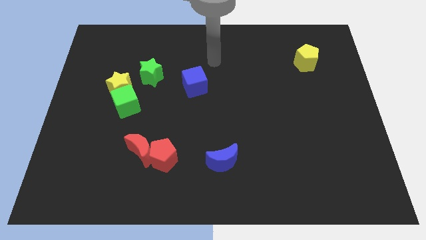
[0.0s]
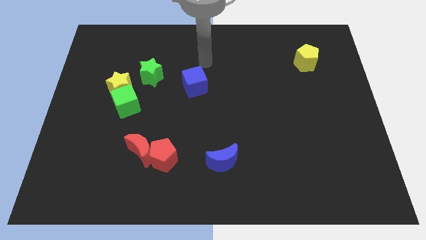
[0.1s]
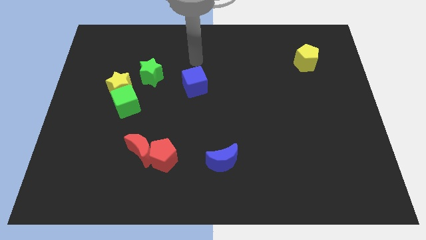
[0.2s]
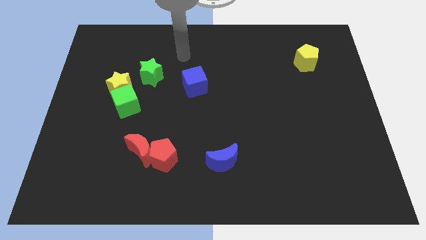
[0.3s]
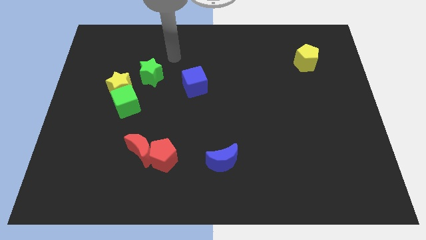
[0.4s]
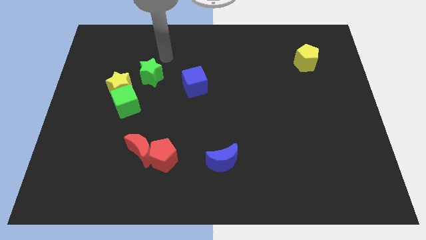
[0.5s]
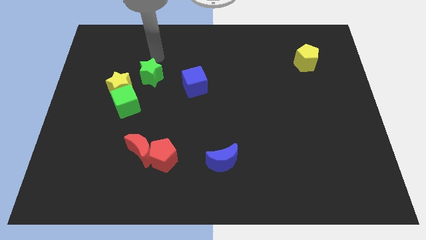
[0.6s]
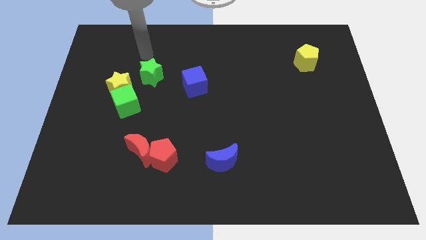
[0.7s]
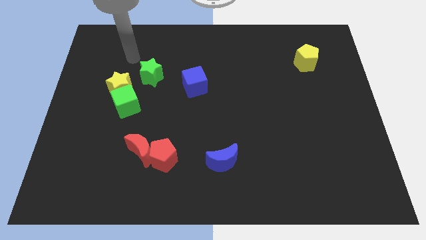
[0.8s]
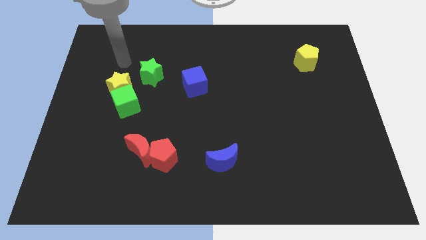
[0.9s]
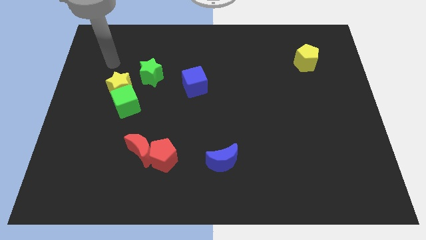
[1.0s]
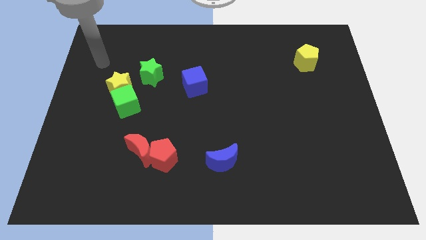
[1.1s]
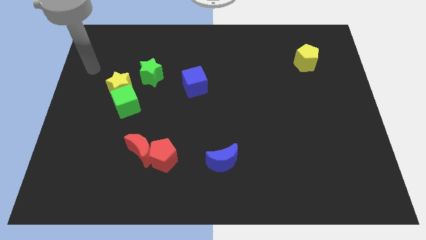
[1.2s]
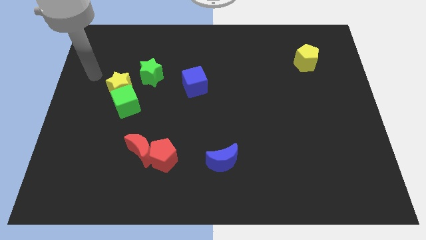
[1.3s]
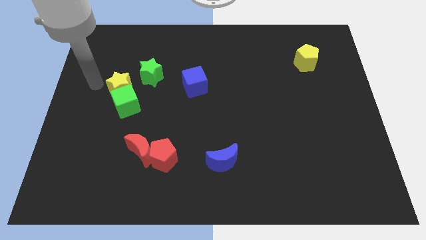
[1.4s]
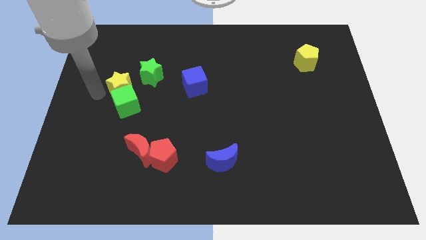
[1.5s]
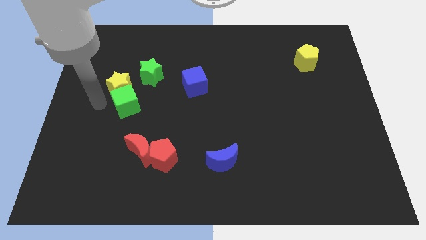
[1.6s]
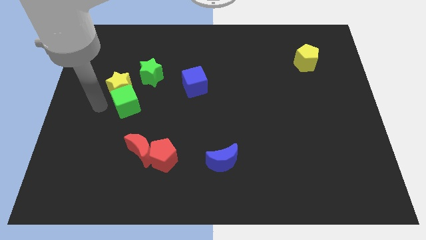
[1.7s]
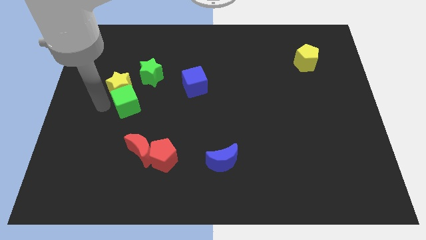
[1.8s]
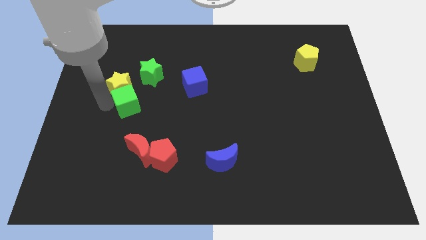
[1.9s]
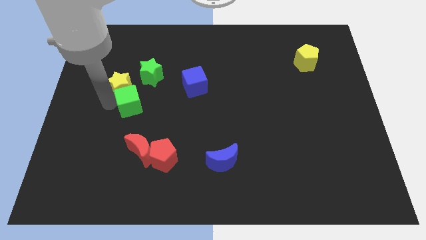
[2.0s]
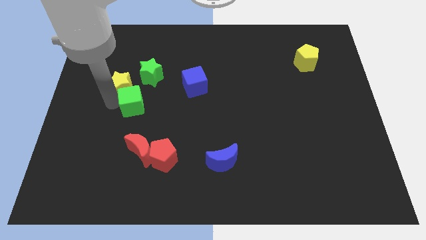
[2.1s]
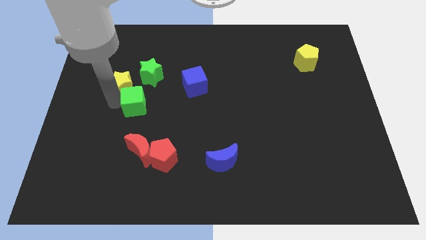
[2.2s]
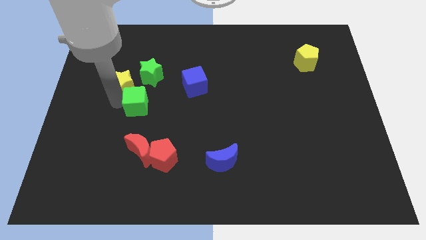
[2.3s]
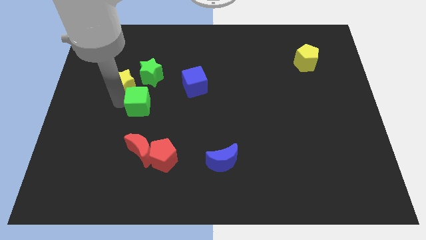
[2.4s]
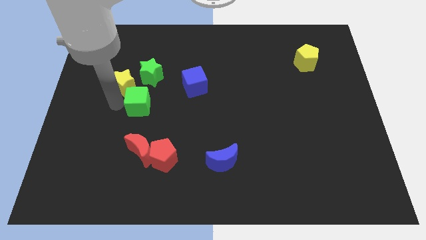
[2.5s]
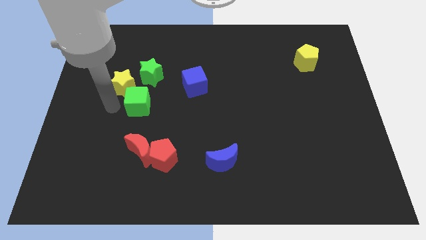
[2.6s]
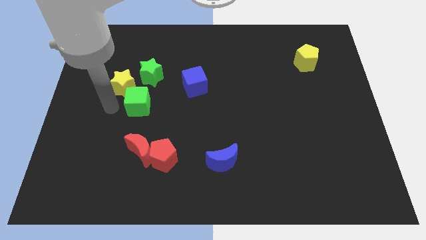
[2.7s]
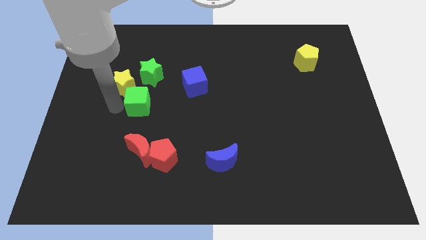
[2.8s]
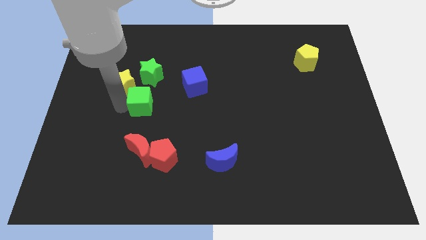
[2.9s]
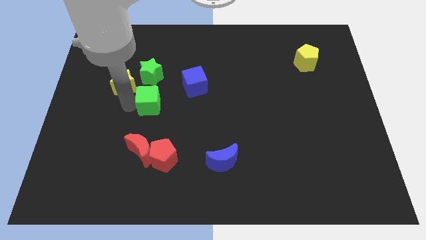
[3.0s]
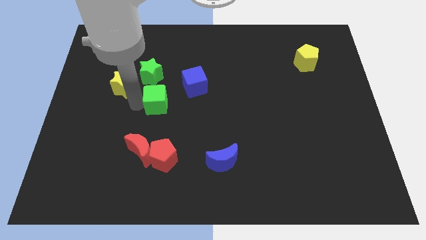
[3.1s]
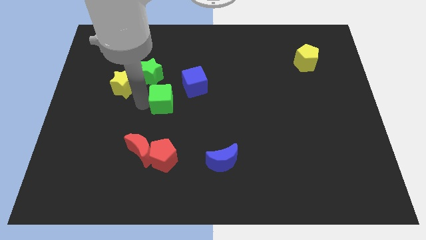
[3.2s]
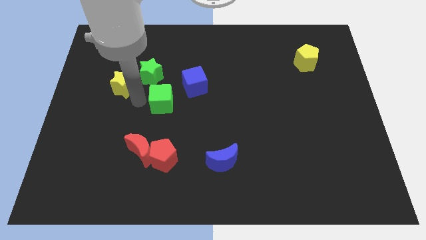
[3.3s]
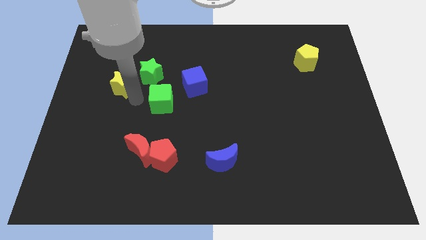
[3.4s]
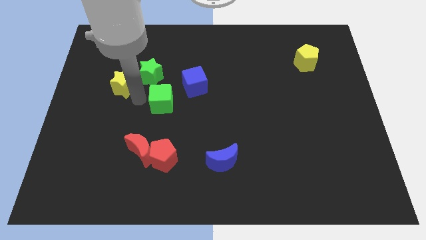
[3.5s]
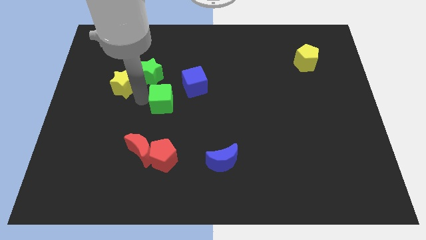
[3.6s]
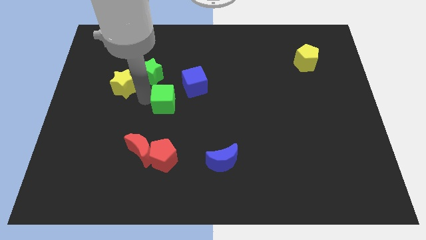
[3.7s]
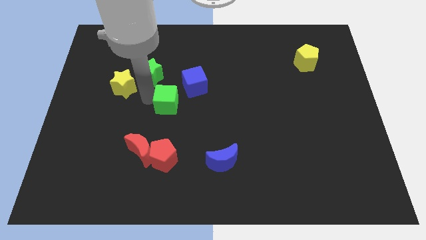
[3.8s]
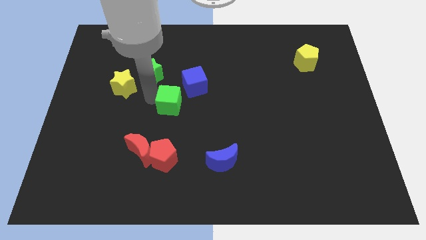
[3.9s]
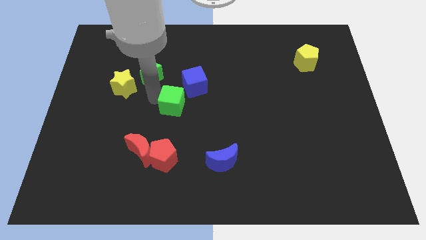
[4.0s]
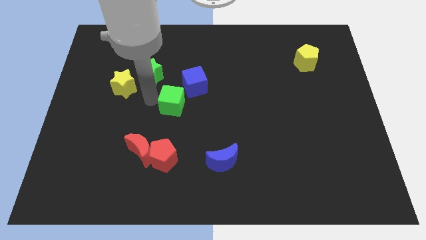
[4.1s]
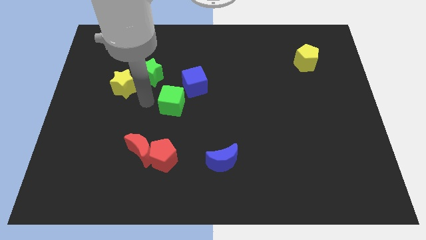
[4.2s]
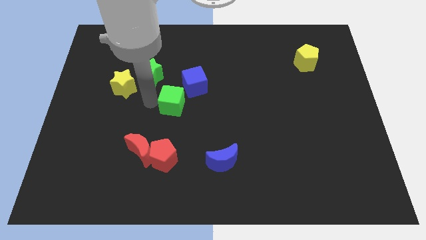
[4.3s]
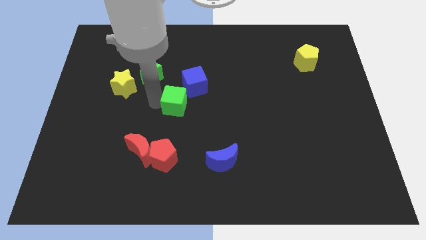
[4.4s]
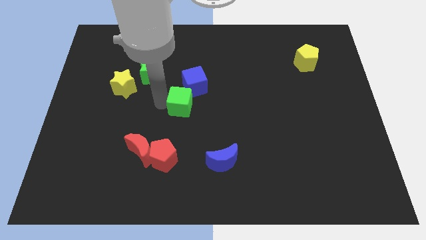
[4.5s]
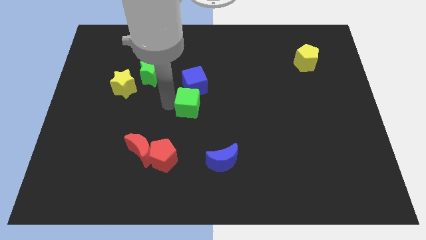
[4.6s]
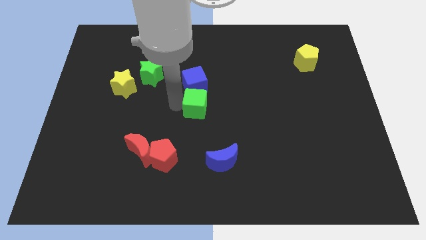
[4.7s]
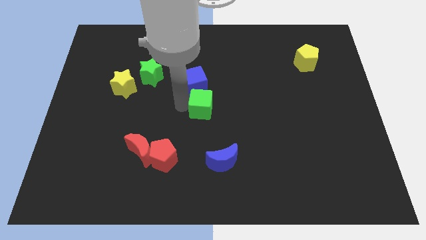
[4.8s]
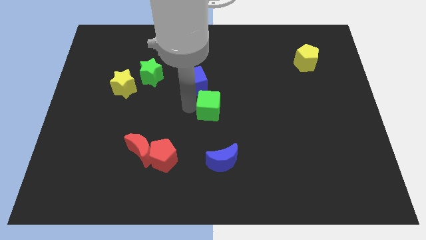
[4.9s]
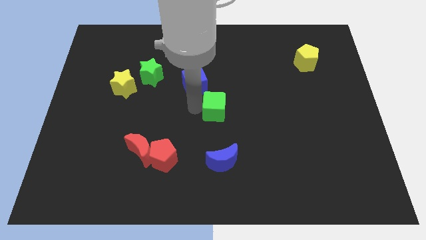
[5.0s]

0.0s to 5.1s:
slide the green cube right

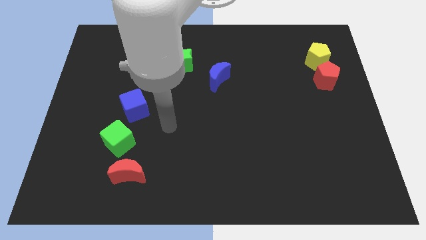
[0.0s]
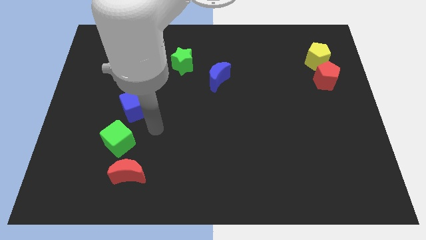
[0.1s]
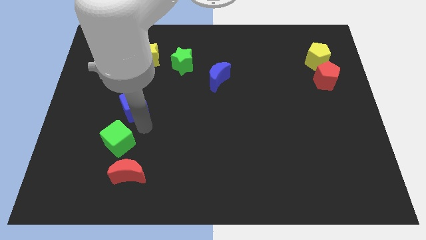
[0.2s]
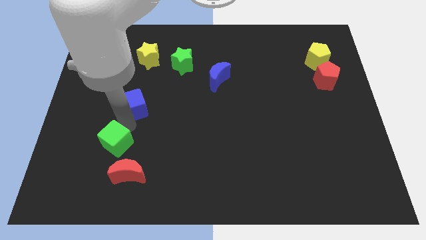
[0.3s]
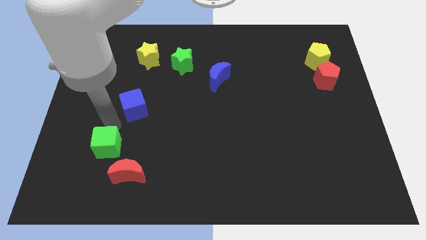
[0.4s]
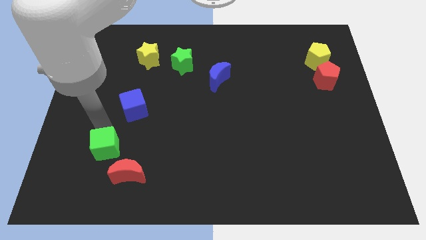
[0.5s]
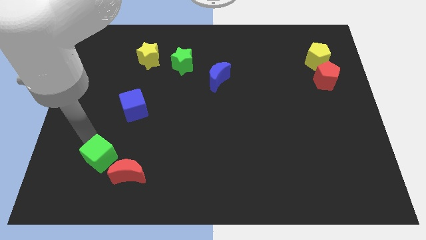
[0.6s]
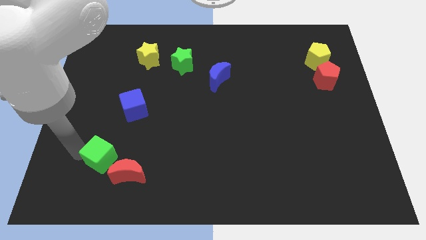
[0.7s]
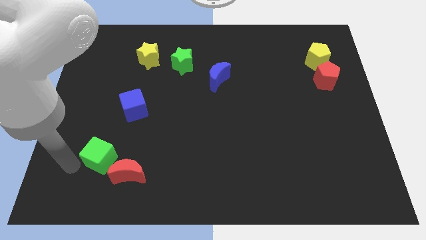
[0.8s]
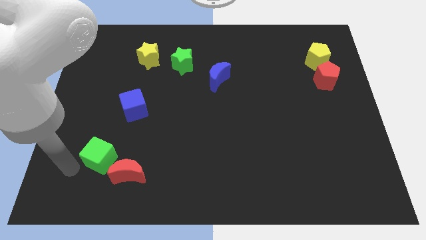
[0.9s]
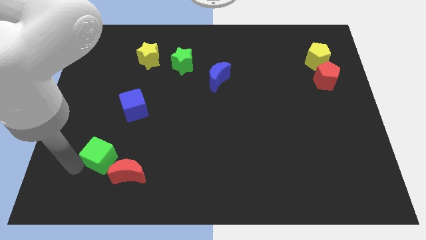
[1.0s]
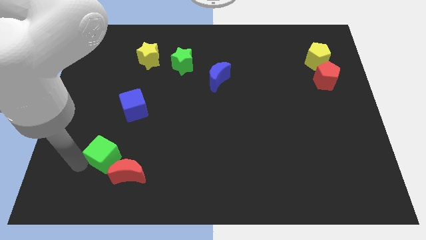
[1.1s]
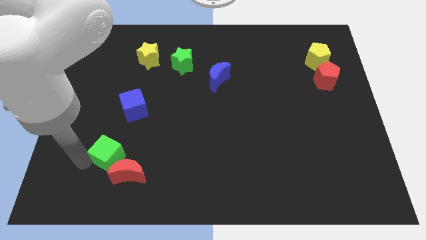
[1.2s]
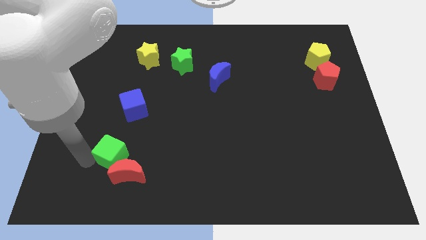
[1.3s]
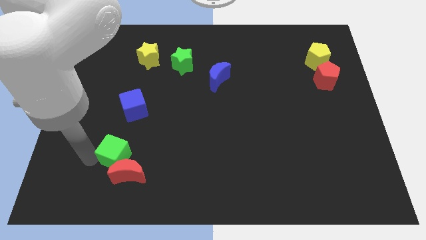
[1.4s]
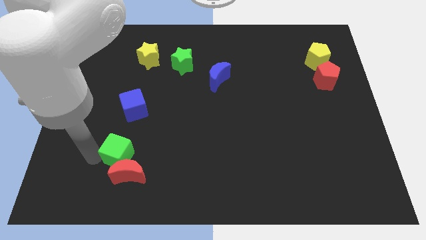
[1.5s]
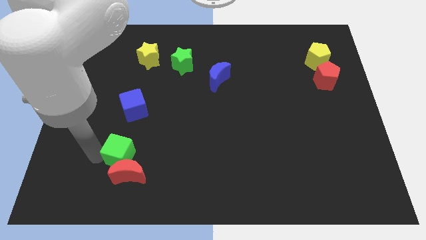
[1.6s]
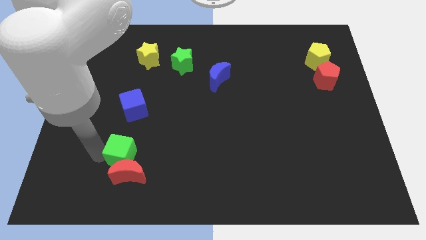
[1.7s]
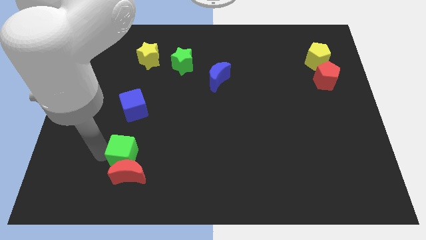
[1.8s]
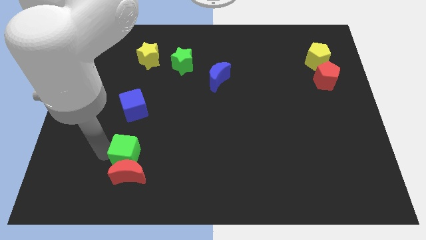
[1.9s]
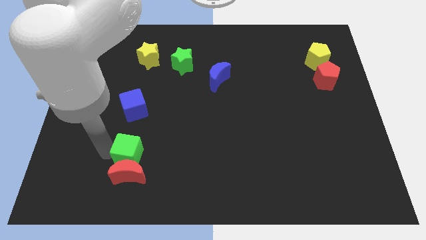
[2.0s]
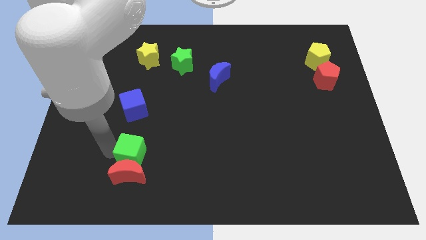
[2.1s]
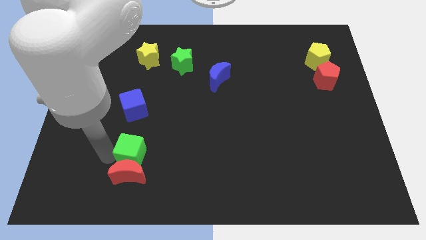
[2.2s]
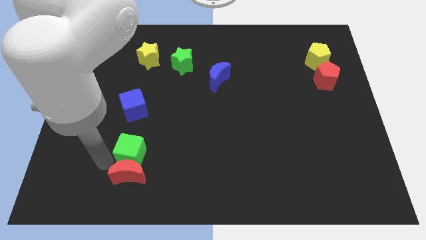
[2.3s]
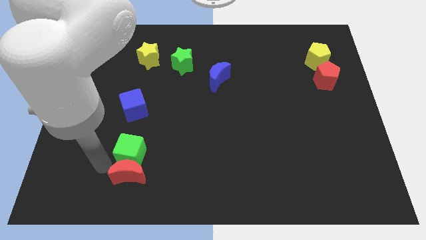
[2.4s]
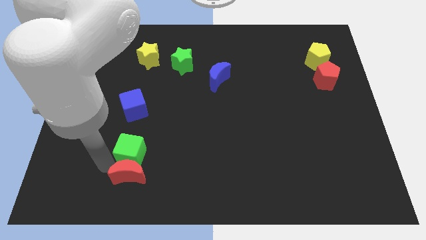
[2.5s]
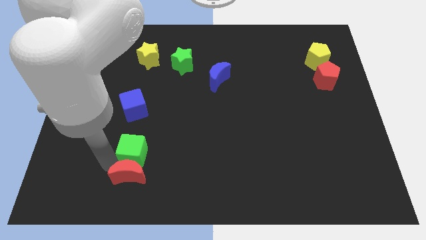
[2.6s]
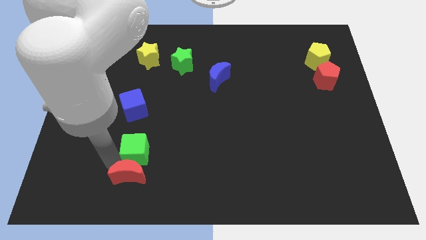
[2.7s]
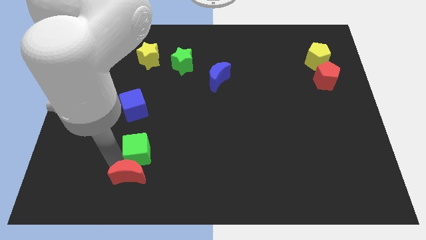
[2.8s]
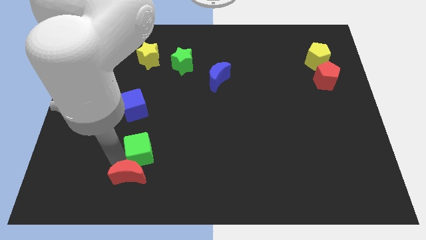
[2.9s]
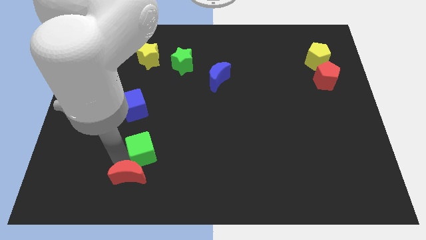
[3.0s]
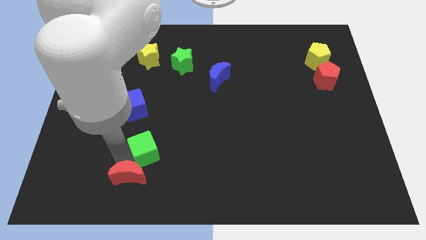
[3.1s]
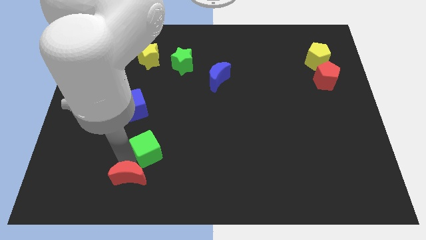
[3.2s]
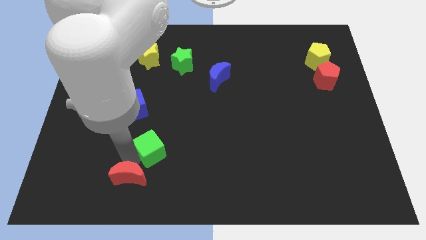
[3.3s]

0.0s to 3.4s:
move the green cube a little bit right
